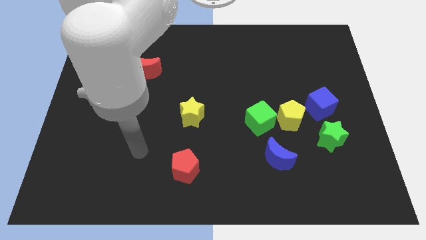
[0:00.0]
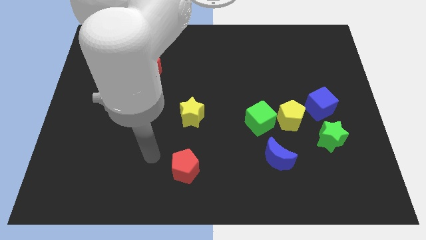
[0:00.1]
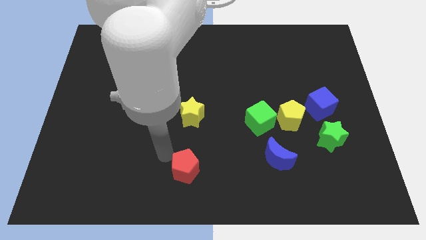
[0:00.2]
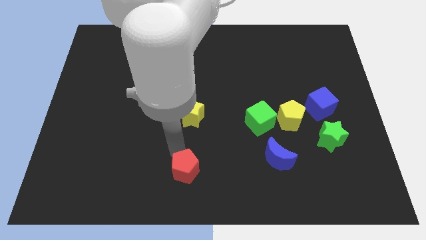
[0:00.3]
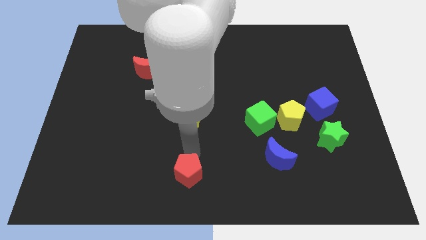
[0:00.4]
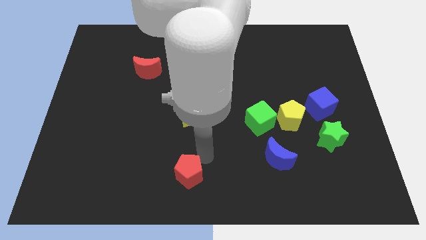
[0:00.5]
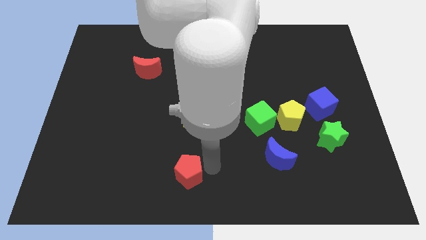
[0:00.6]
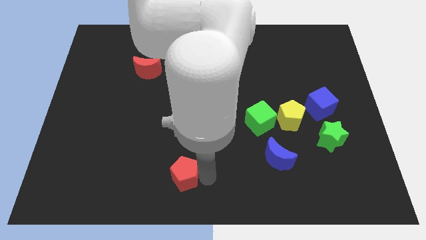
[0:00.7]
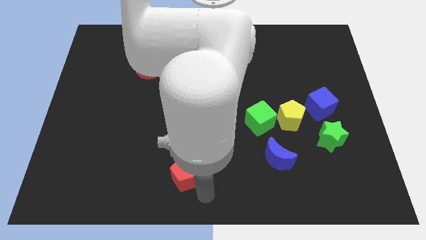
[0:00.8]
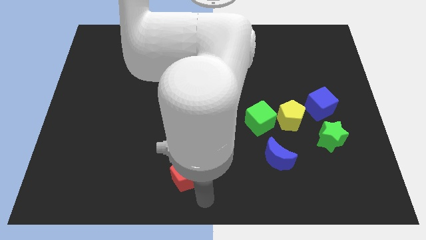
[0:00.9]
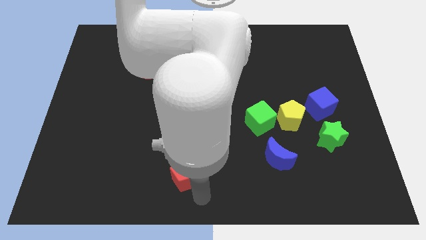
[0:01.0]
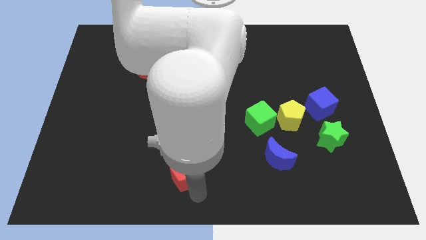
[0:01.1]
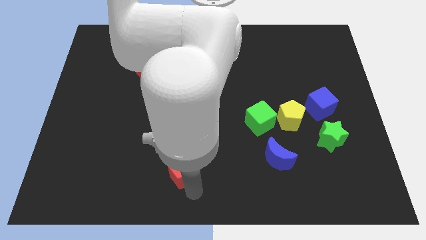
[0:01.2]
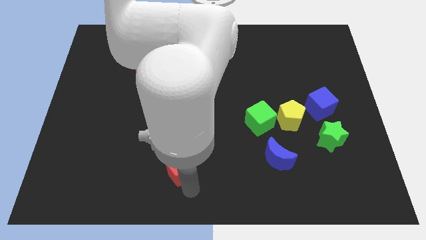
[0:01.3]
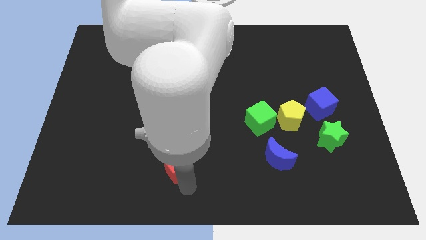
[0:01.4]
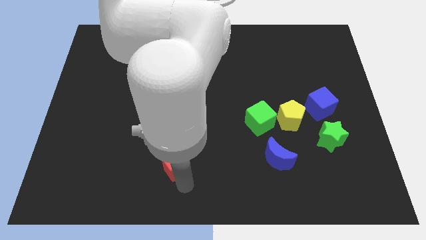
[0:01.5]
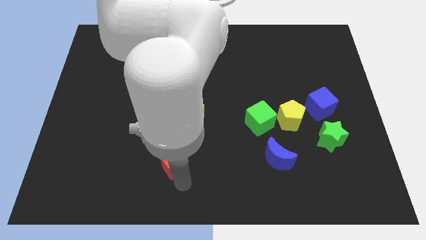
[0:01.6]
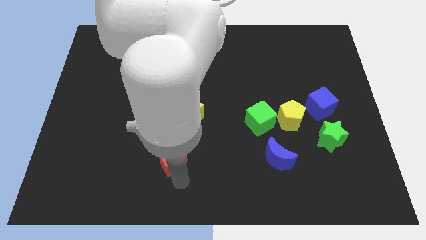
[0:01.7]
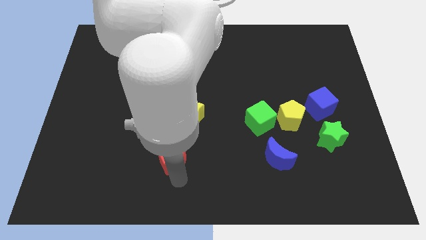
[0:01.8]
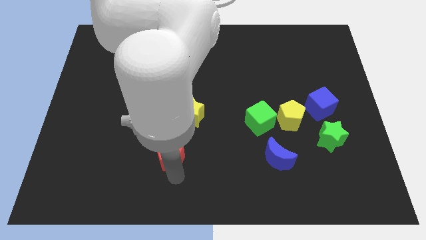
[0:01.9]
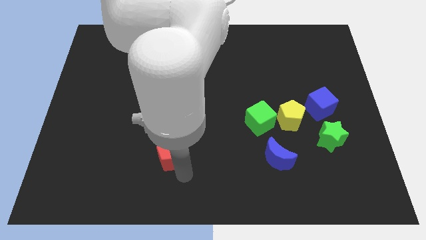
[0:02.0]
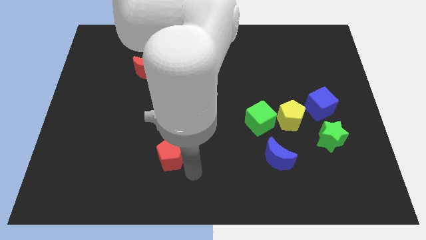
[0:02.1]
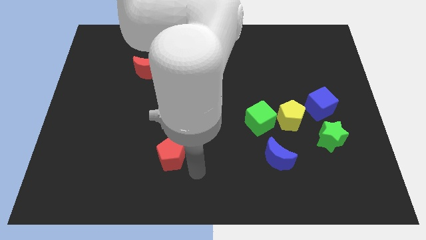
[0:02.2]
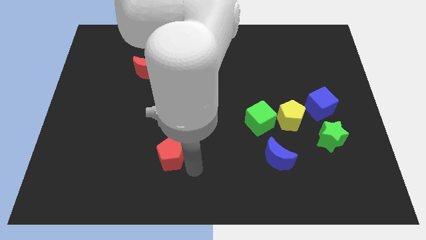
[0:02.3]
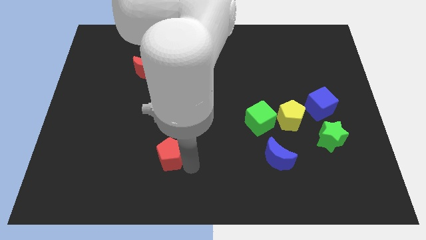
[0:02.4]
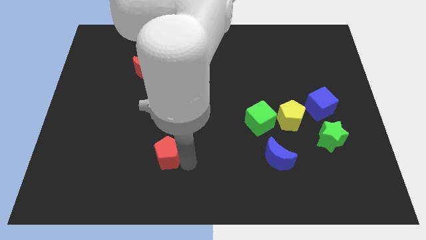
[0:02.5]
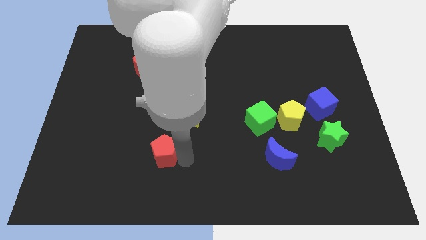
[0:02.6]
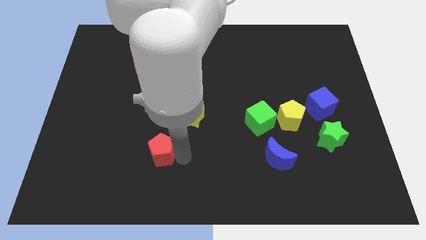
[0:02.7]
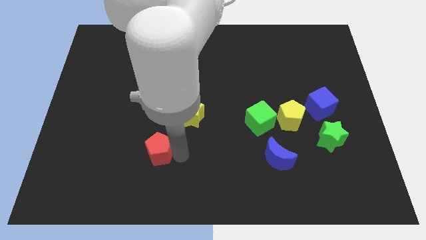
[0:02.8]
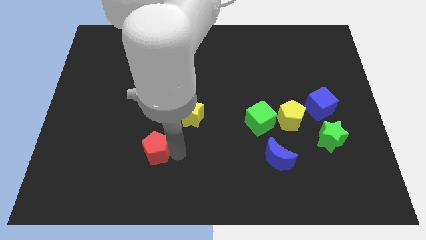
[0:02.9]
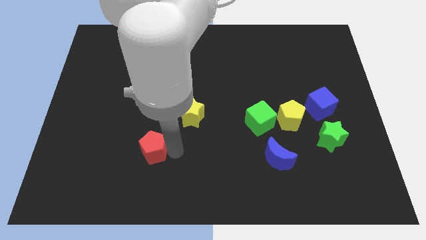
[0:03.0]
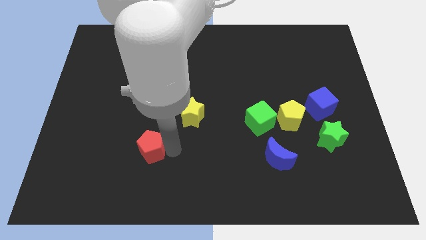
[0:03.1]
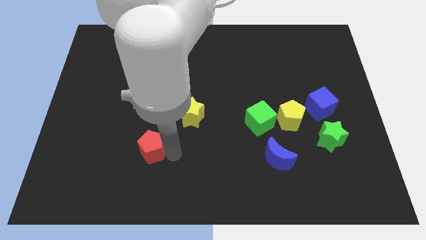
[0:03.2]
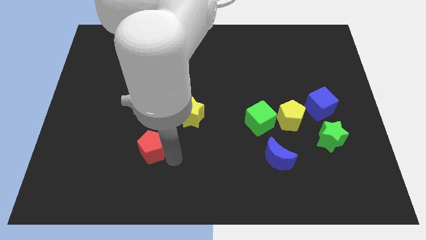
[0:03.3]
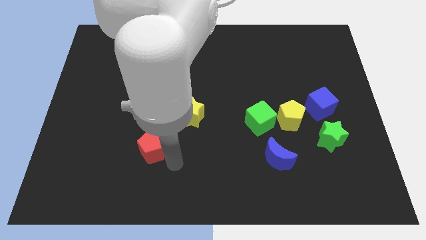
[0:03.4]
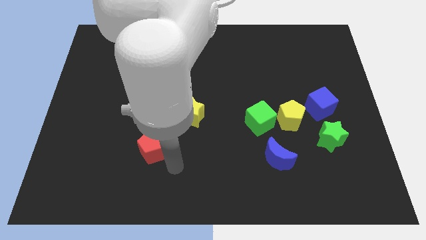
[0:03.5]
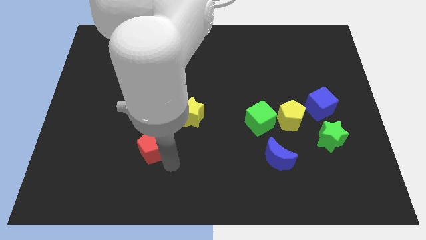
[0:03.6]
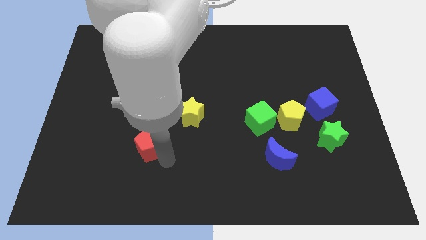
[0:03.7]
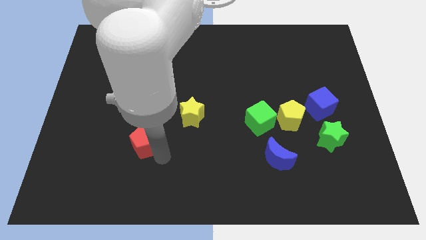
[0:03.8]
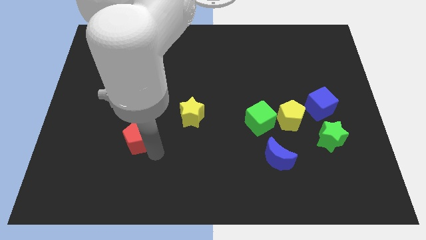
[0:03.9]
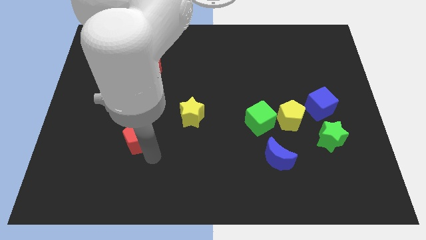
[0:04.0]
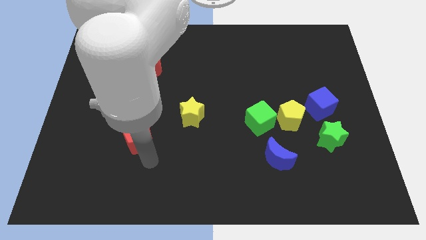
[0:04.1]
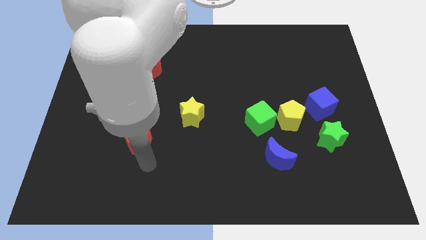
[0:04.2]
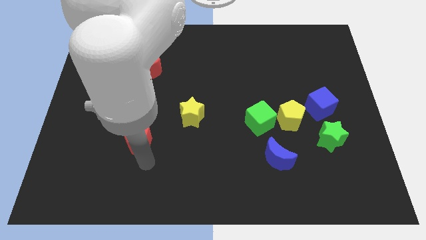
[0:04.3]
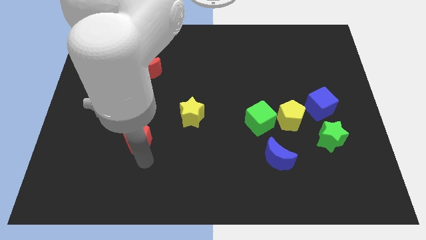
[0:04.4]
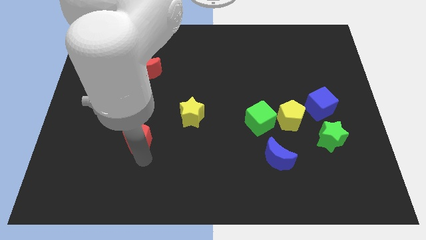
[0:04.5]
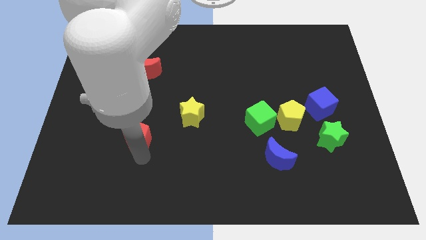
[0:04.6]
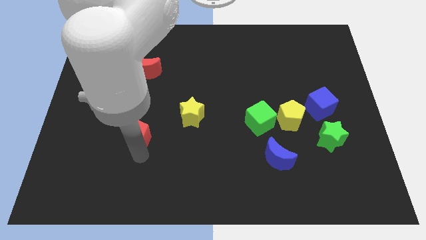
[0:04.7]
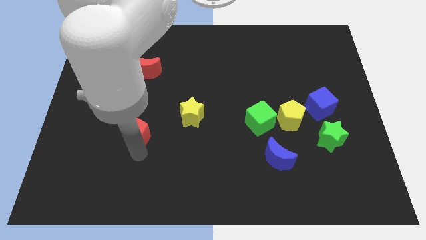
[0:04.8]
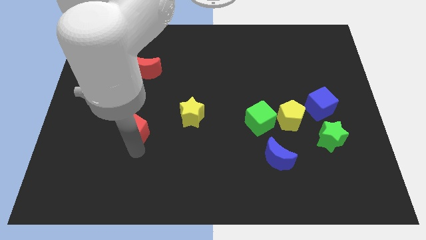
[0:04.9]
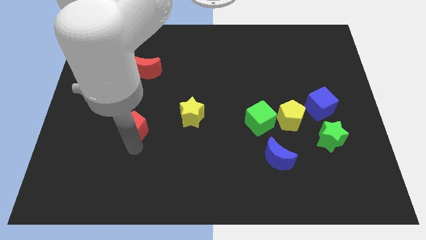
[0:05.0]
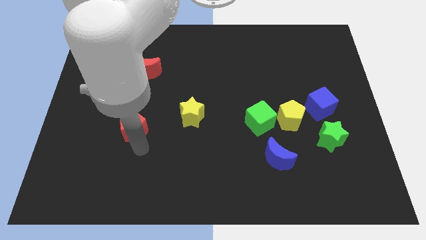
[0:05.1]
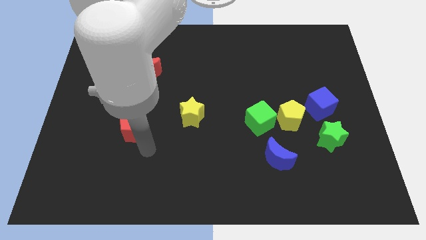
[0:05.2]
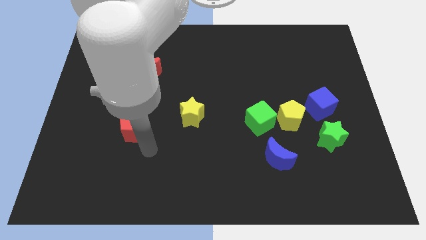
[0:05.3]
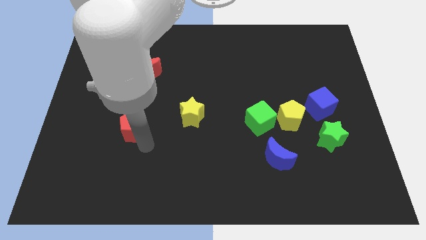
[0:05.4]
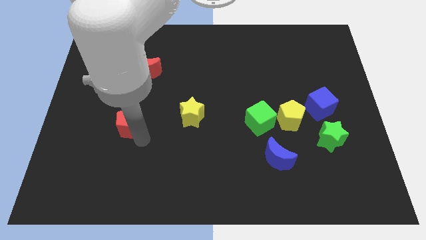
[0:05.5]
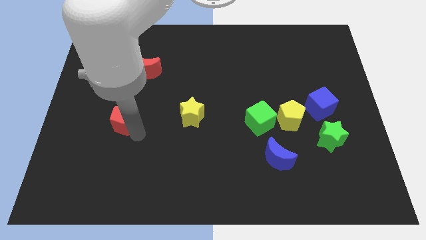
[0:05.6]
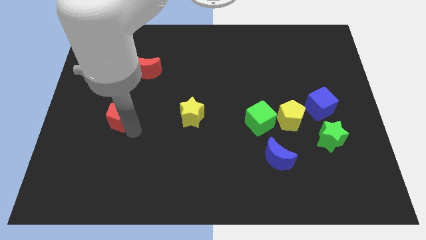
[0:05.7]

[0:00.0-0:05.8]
push the red pentagon upwards and to the left

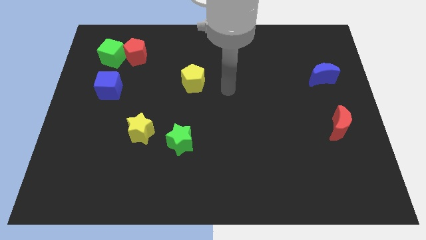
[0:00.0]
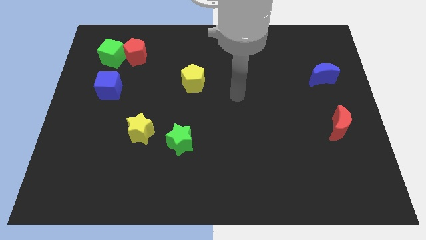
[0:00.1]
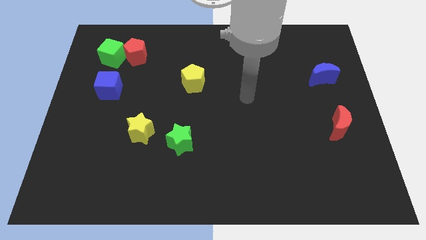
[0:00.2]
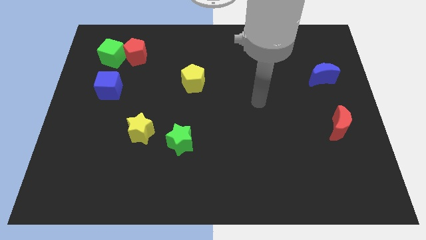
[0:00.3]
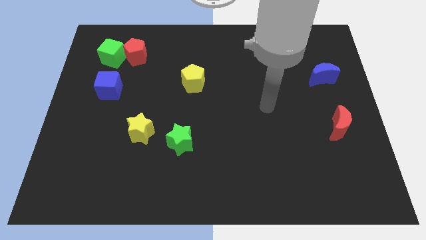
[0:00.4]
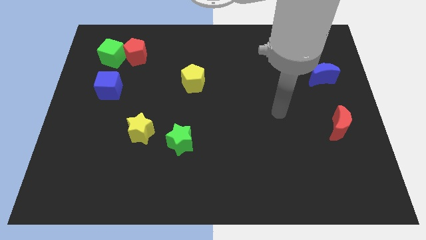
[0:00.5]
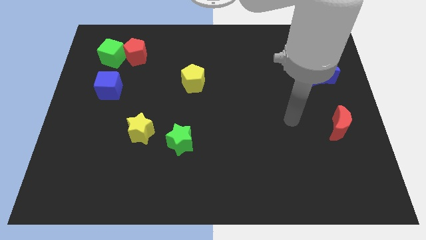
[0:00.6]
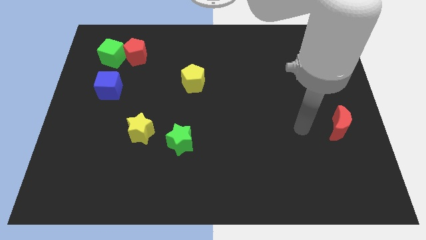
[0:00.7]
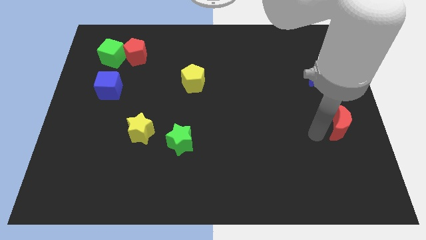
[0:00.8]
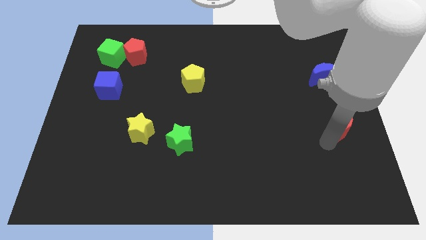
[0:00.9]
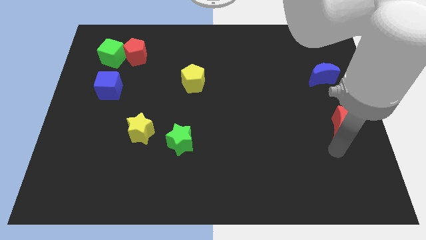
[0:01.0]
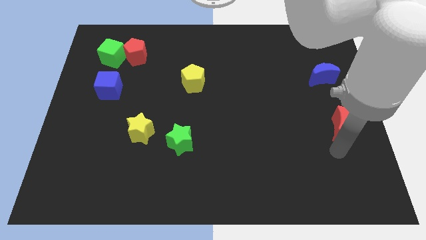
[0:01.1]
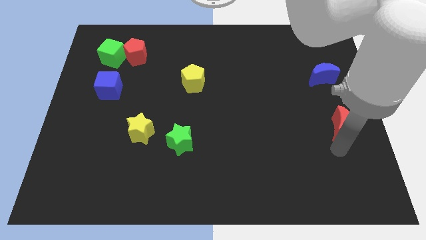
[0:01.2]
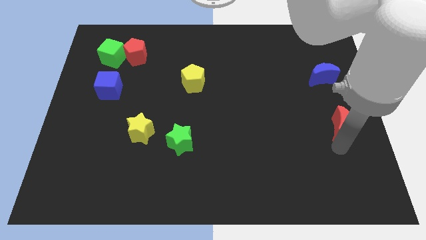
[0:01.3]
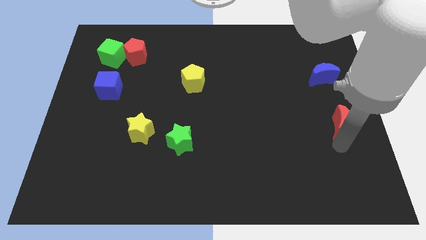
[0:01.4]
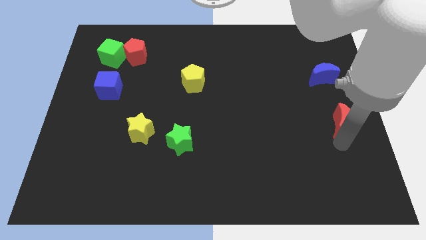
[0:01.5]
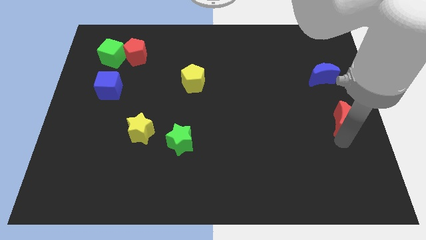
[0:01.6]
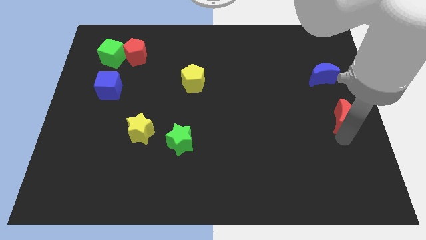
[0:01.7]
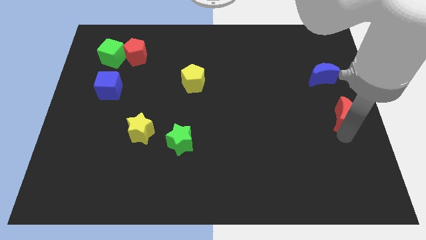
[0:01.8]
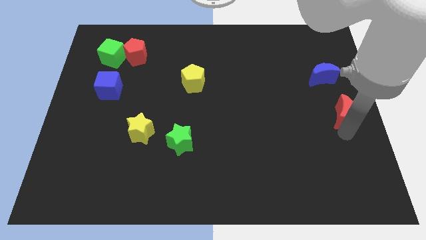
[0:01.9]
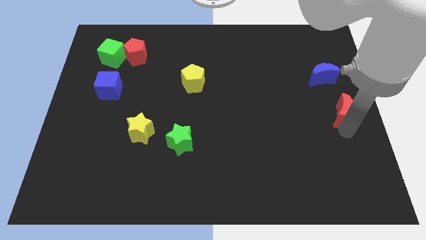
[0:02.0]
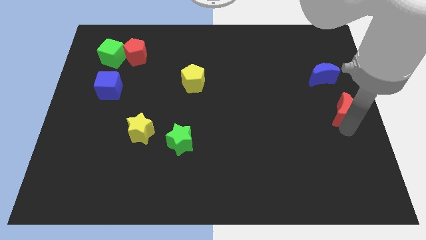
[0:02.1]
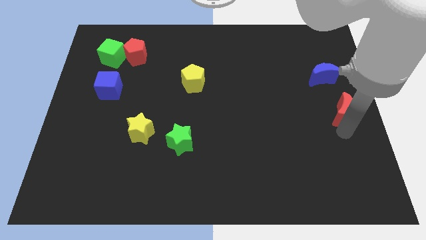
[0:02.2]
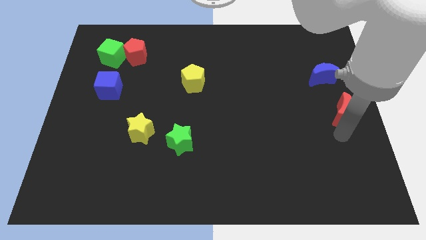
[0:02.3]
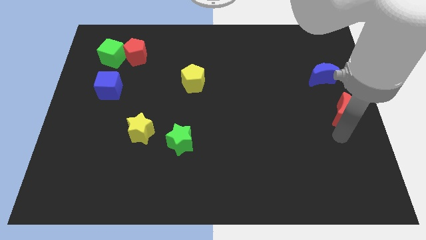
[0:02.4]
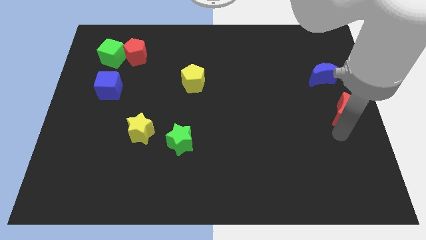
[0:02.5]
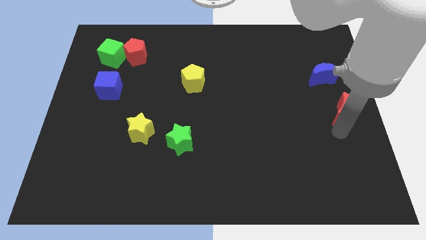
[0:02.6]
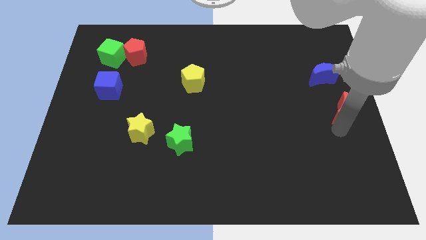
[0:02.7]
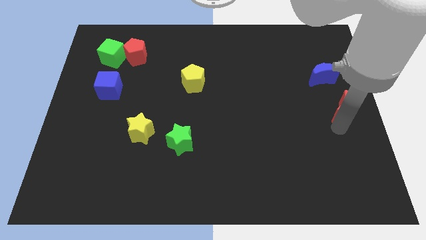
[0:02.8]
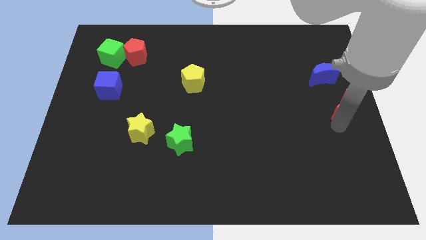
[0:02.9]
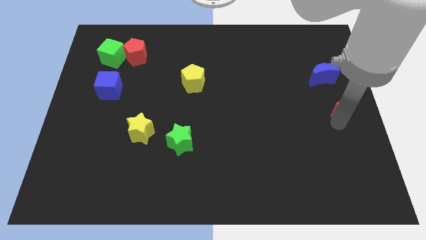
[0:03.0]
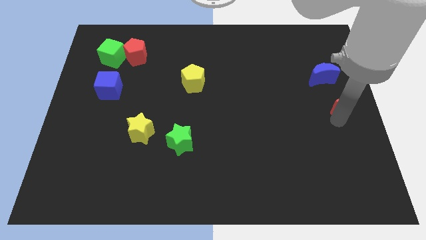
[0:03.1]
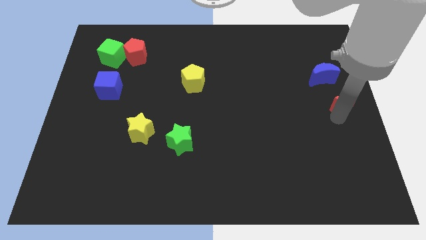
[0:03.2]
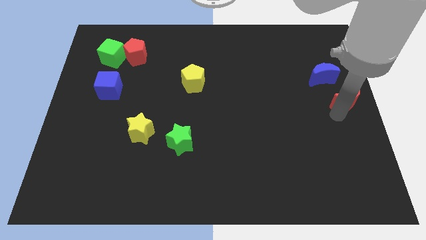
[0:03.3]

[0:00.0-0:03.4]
move the red moon a bit up
